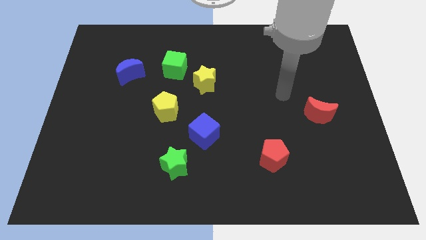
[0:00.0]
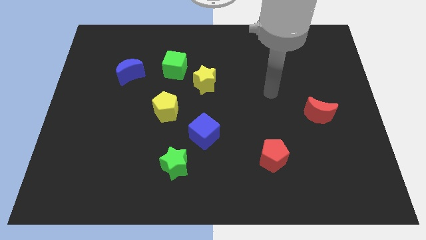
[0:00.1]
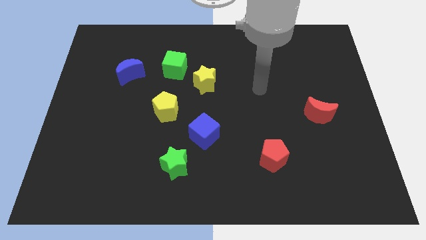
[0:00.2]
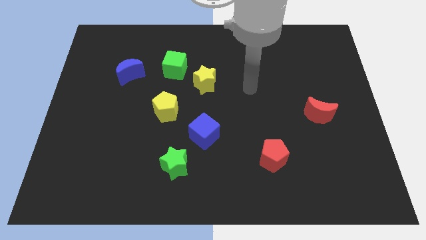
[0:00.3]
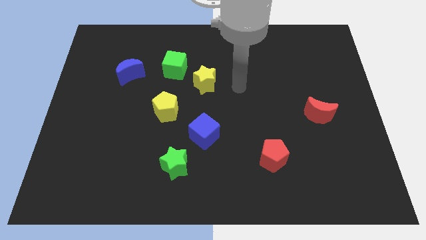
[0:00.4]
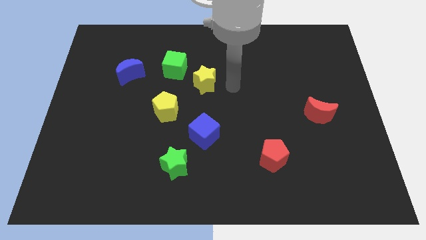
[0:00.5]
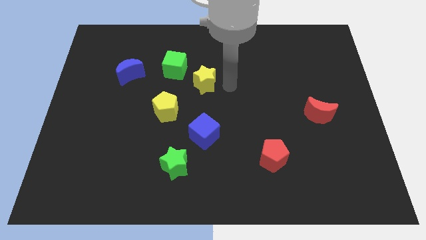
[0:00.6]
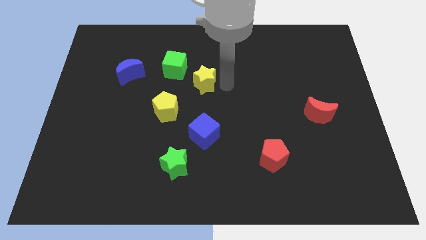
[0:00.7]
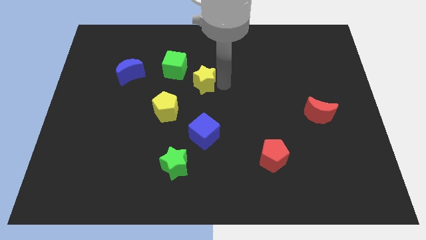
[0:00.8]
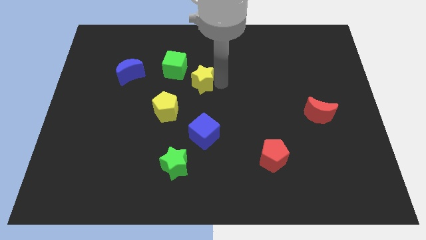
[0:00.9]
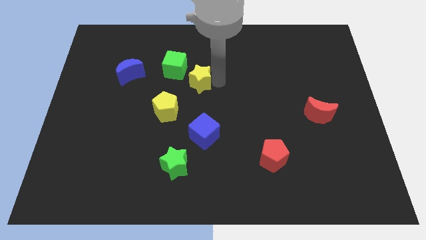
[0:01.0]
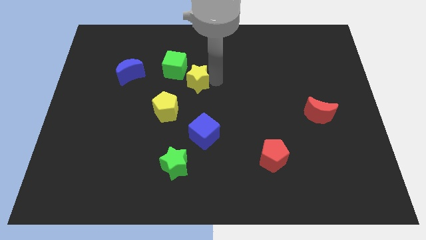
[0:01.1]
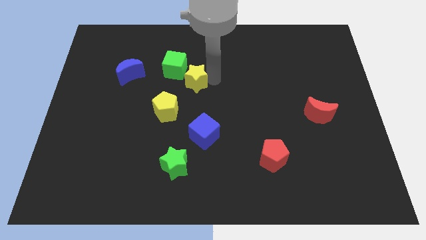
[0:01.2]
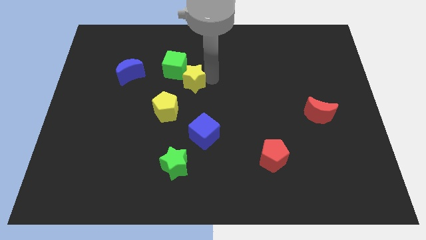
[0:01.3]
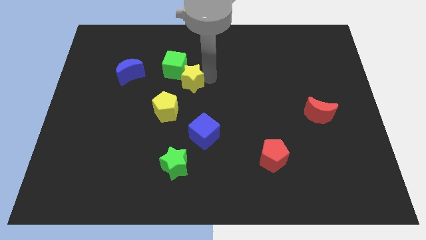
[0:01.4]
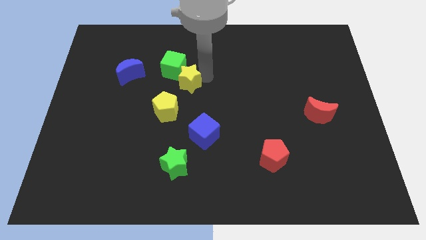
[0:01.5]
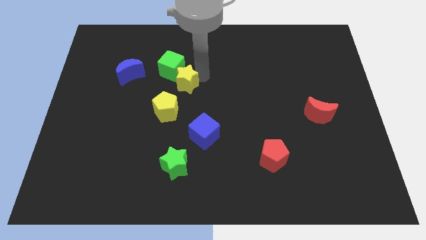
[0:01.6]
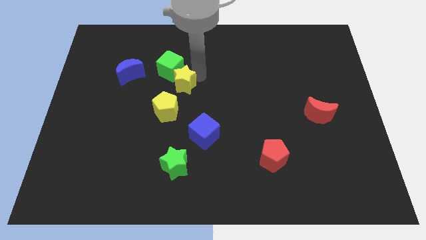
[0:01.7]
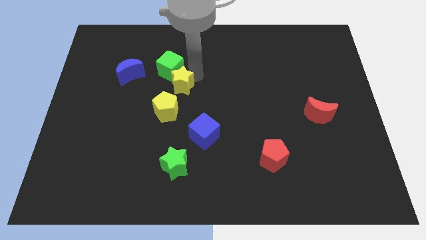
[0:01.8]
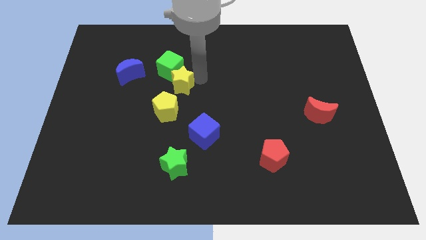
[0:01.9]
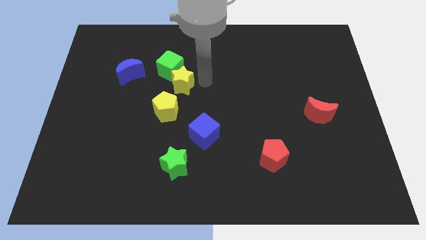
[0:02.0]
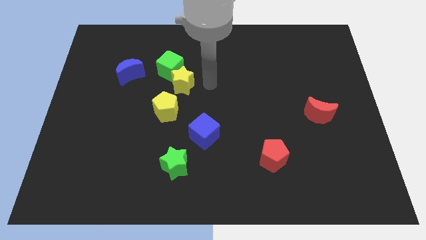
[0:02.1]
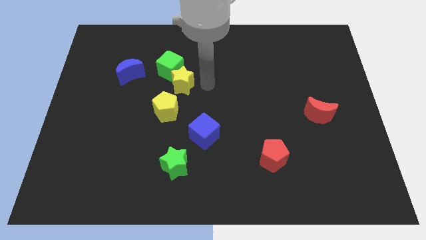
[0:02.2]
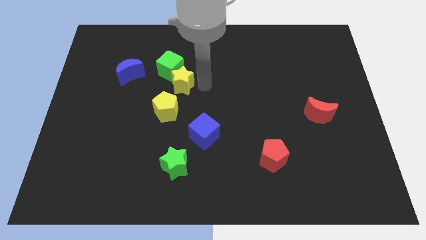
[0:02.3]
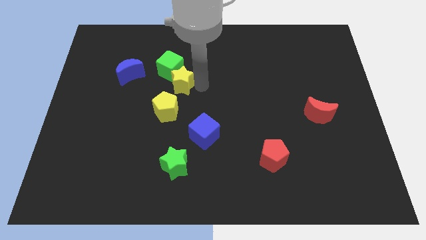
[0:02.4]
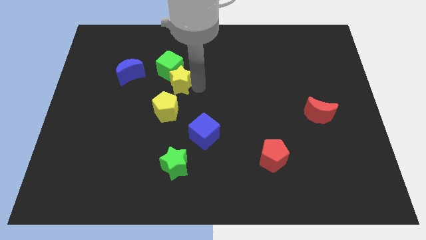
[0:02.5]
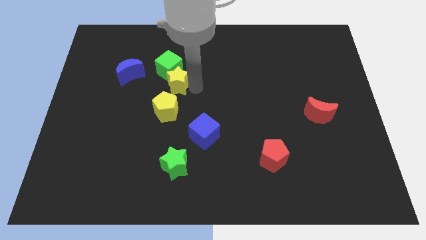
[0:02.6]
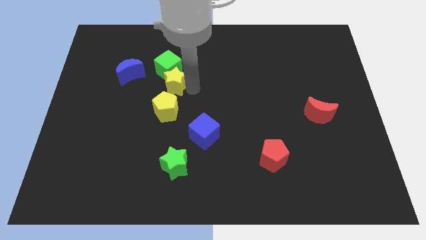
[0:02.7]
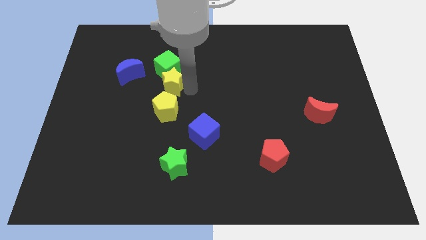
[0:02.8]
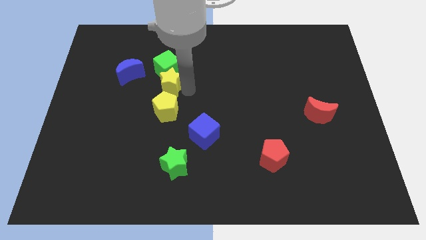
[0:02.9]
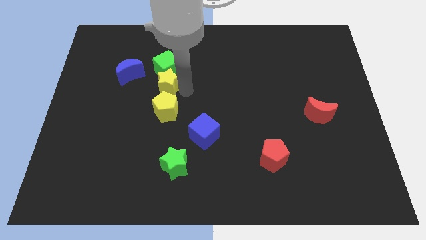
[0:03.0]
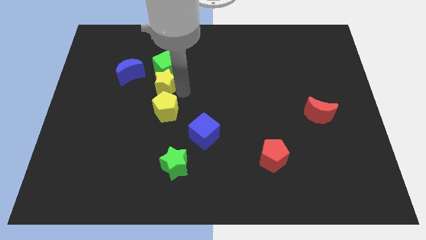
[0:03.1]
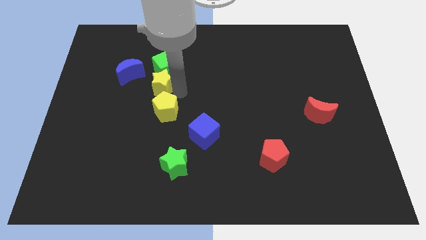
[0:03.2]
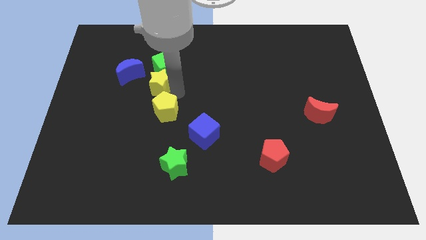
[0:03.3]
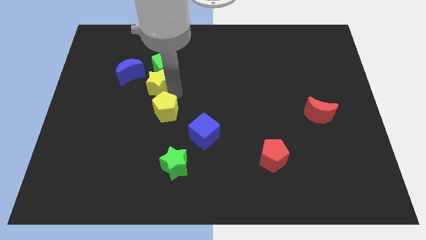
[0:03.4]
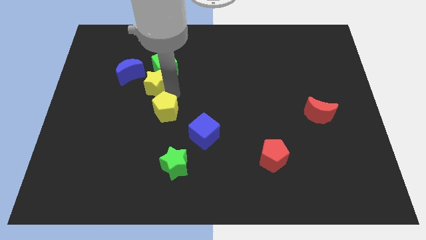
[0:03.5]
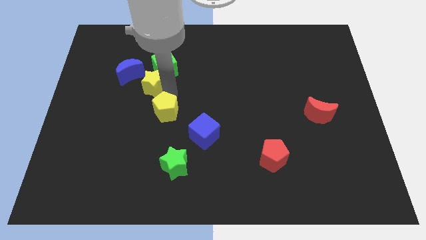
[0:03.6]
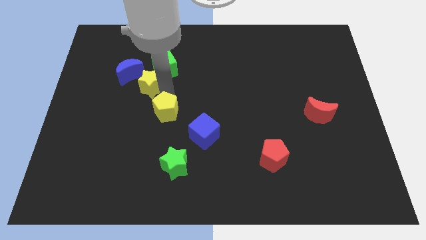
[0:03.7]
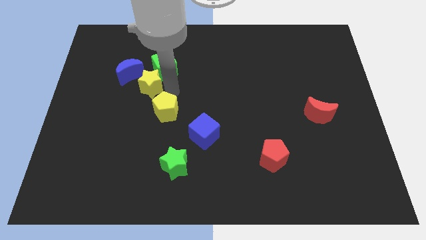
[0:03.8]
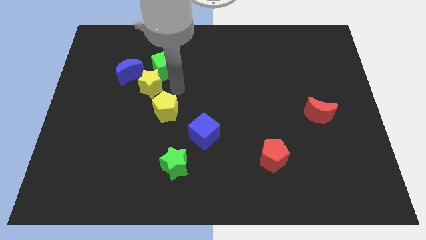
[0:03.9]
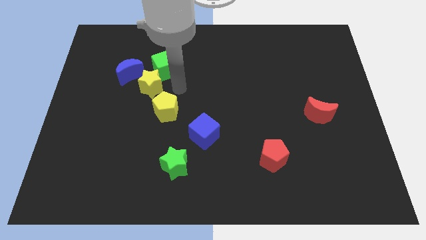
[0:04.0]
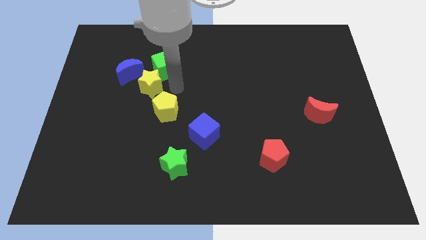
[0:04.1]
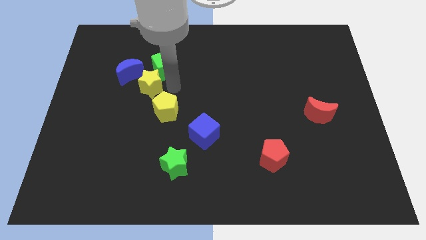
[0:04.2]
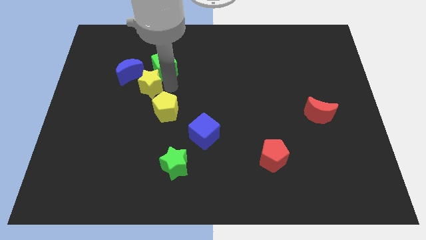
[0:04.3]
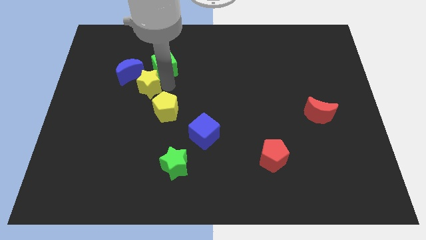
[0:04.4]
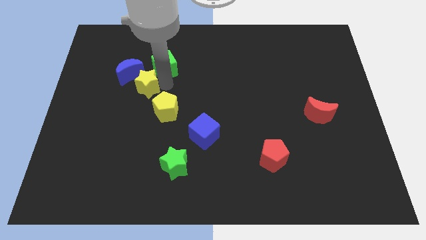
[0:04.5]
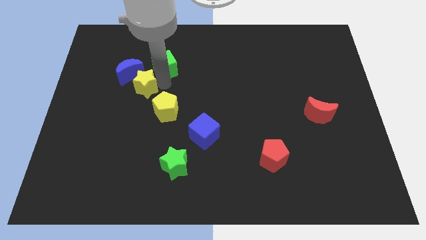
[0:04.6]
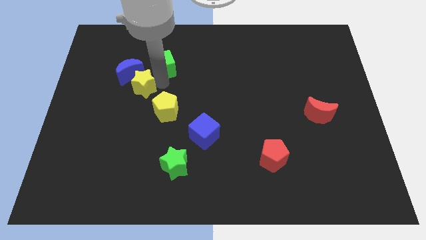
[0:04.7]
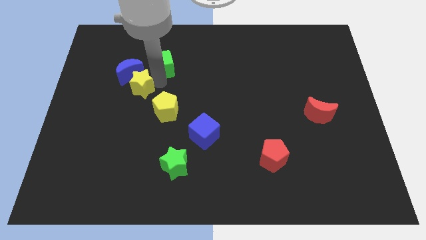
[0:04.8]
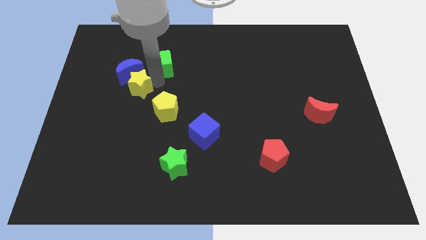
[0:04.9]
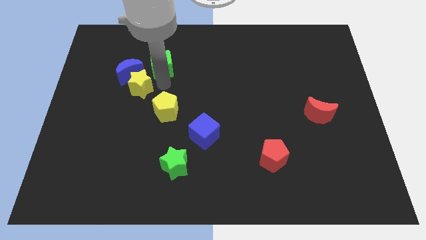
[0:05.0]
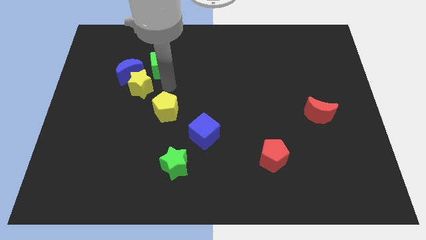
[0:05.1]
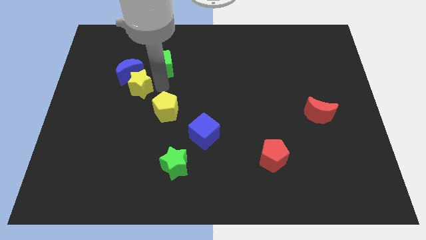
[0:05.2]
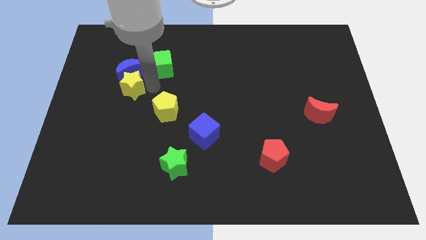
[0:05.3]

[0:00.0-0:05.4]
slide the yellow star to the bottom left side of the blue moon

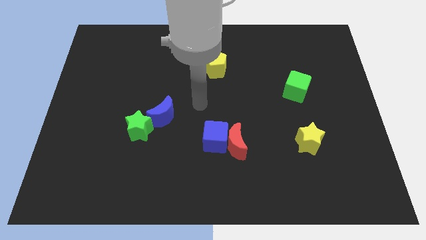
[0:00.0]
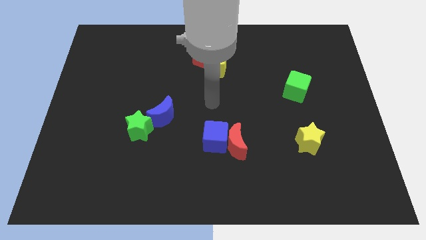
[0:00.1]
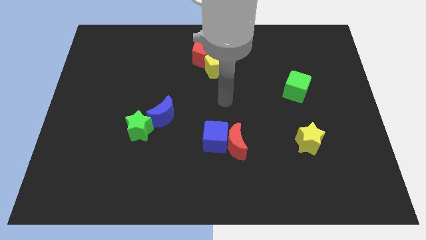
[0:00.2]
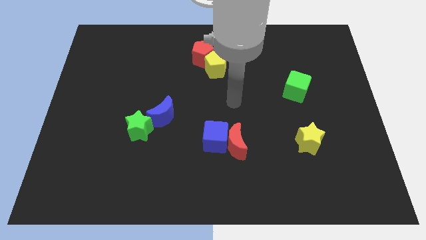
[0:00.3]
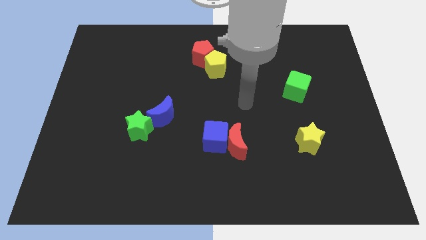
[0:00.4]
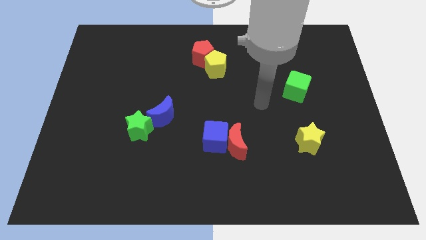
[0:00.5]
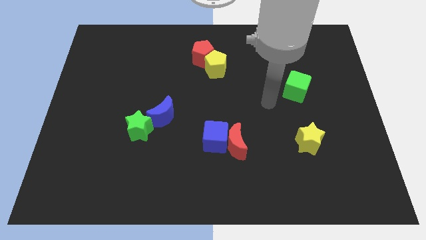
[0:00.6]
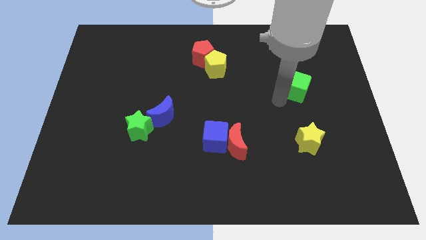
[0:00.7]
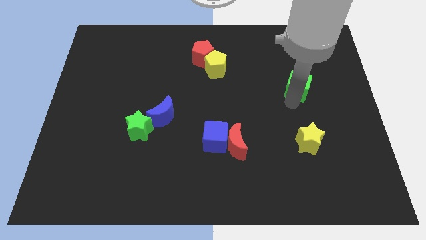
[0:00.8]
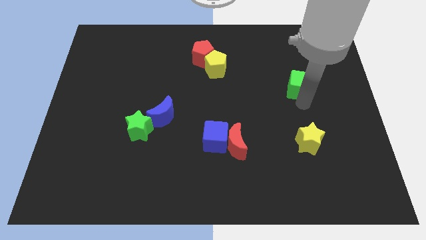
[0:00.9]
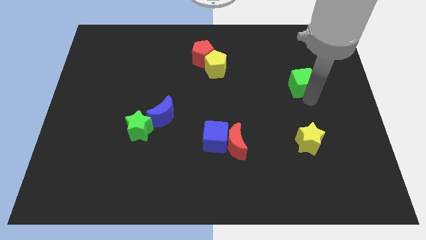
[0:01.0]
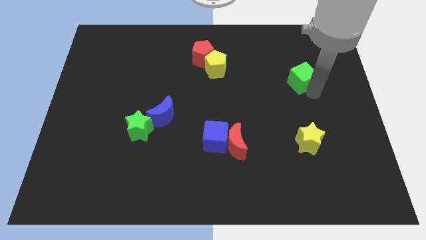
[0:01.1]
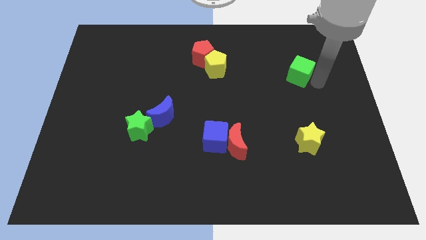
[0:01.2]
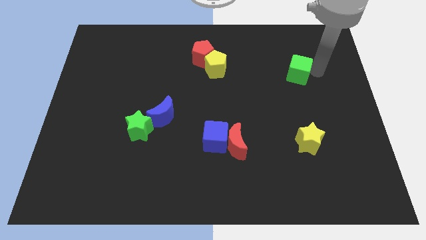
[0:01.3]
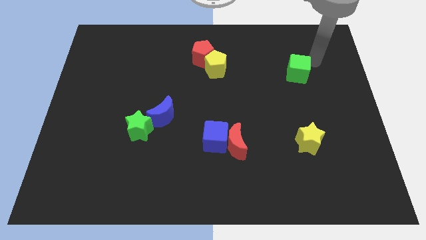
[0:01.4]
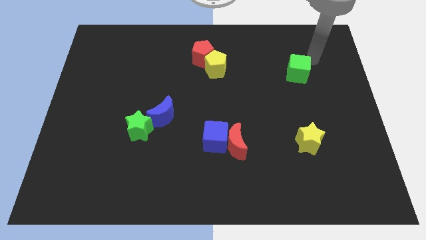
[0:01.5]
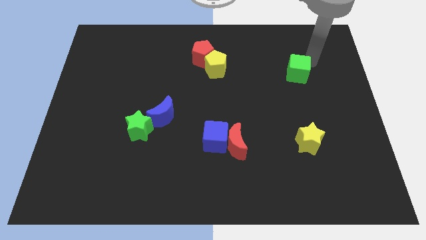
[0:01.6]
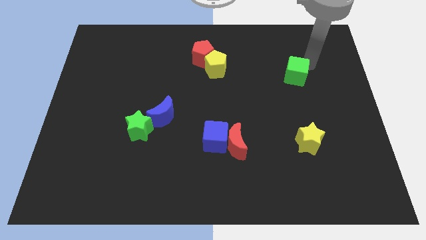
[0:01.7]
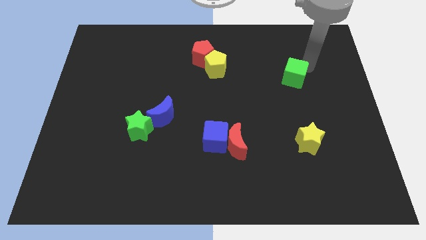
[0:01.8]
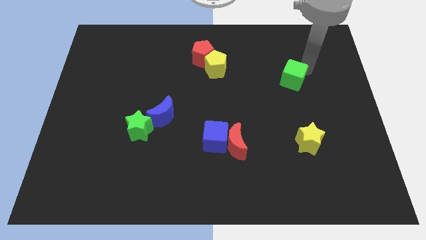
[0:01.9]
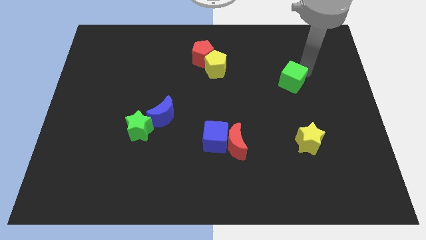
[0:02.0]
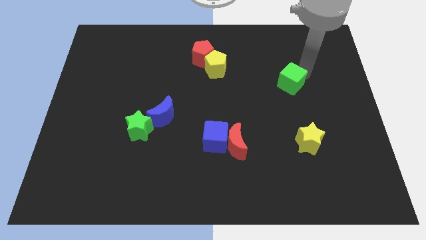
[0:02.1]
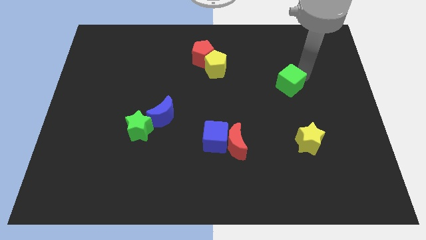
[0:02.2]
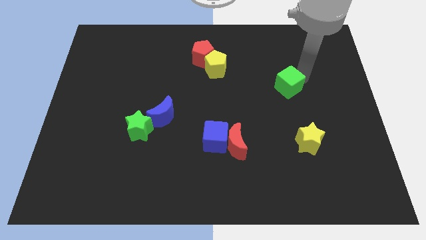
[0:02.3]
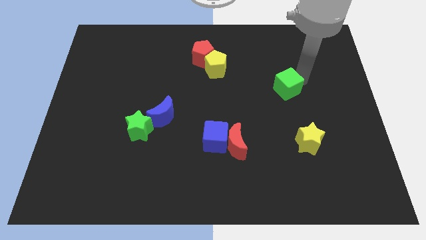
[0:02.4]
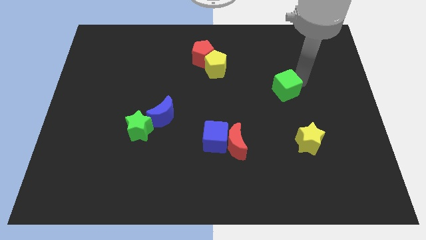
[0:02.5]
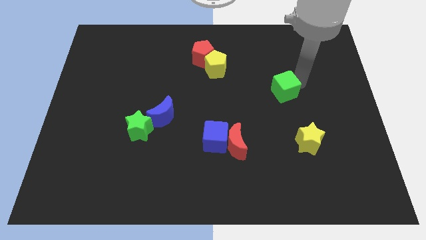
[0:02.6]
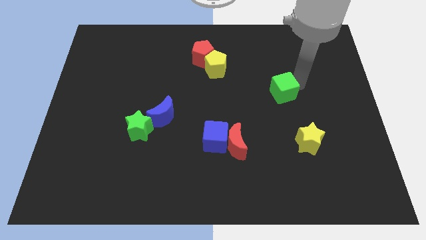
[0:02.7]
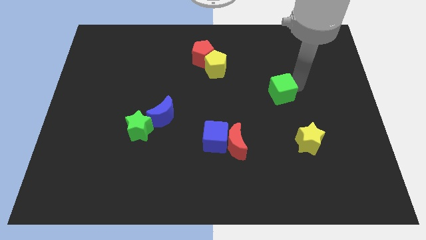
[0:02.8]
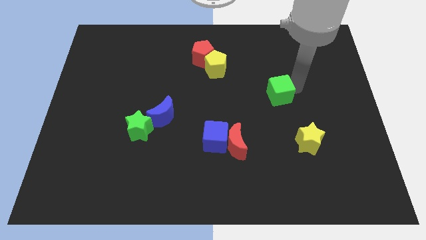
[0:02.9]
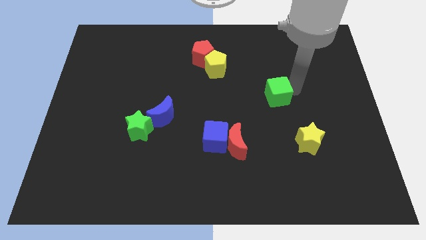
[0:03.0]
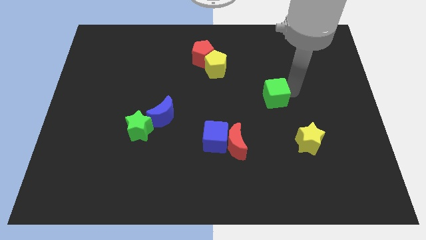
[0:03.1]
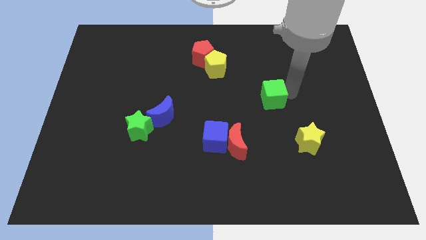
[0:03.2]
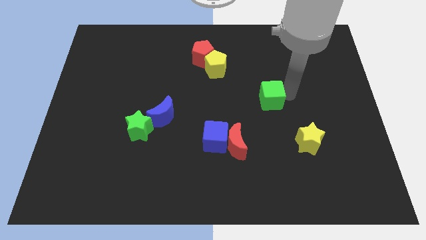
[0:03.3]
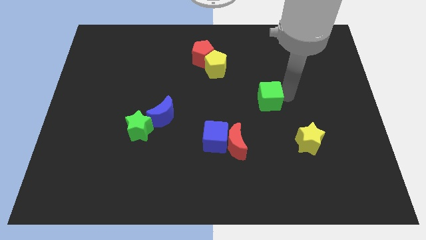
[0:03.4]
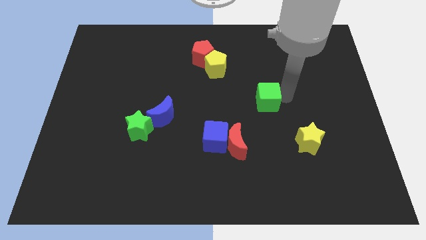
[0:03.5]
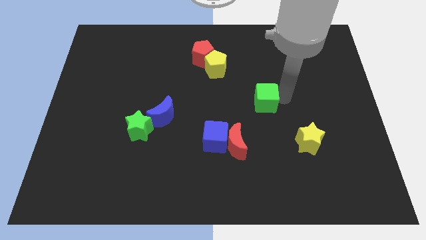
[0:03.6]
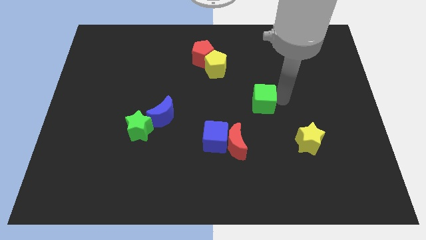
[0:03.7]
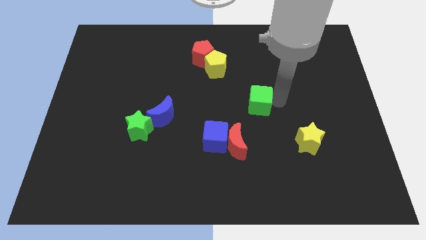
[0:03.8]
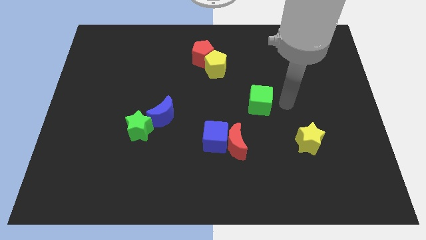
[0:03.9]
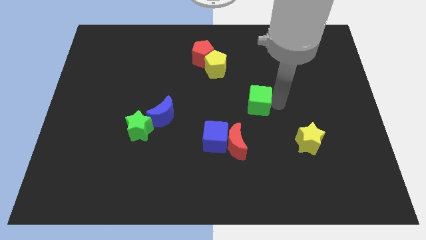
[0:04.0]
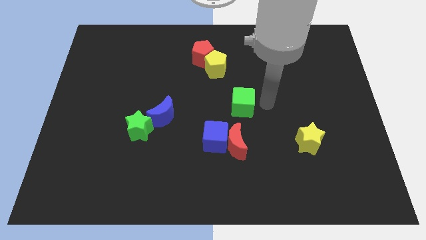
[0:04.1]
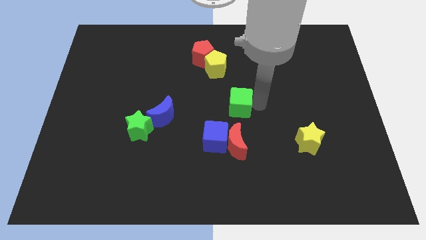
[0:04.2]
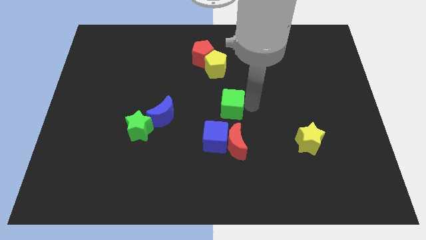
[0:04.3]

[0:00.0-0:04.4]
slide the green cube to the top side of the blue cube
